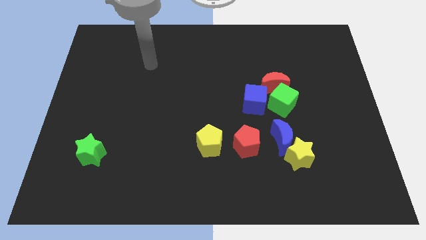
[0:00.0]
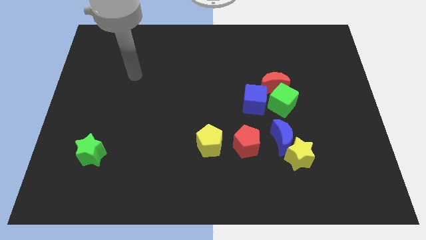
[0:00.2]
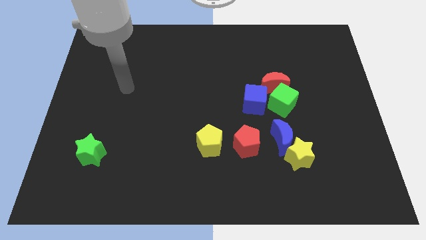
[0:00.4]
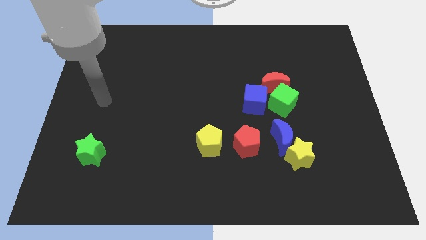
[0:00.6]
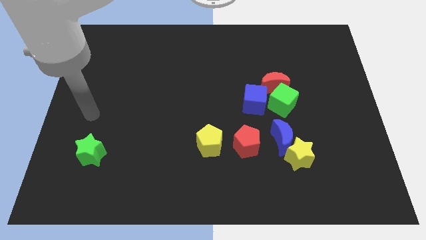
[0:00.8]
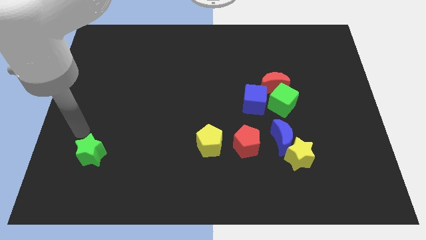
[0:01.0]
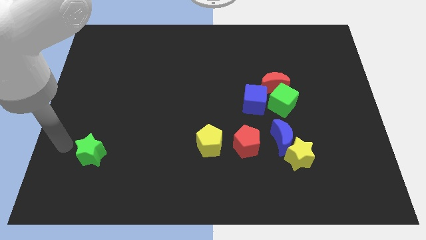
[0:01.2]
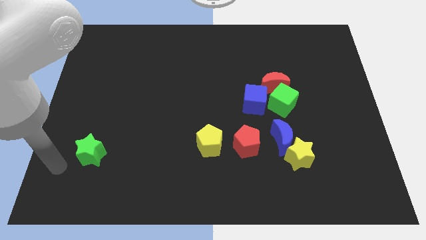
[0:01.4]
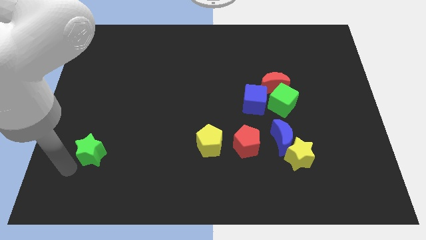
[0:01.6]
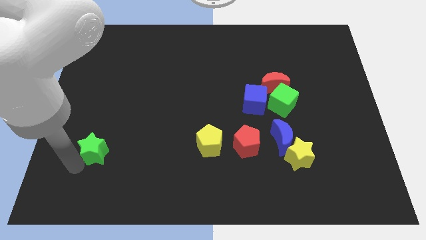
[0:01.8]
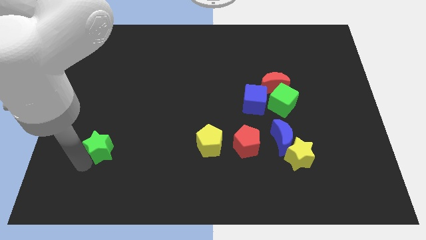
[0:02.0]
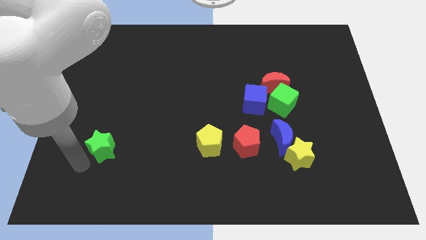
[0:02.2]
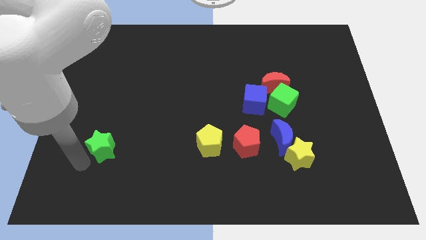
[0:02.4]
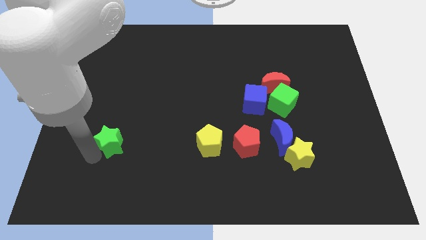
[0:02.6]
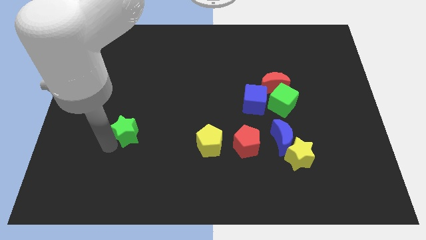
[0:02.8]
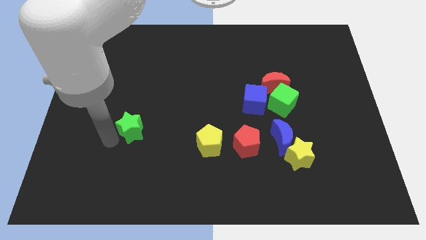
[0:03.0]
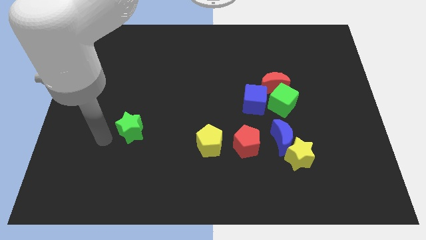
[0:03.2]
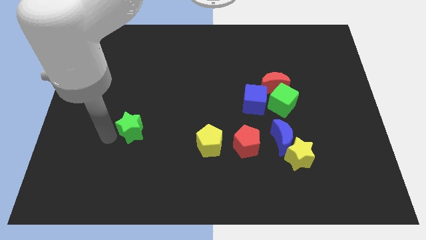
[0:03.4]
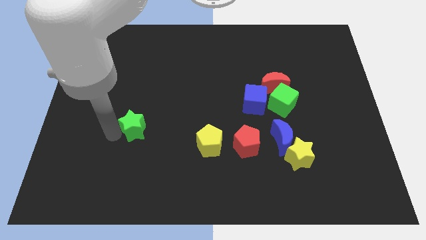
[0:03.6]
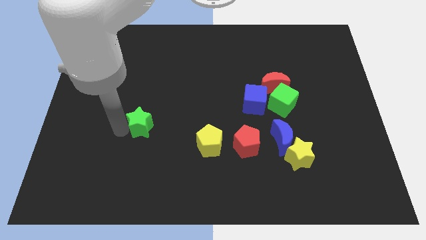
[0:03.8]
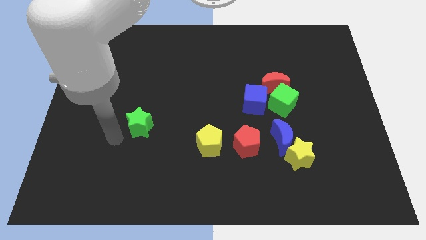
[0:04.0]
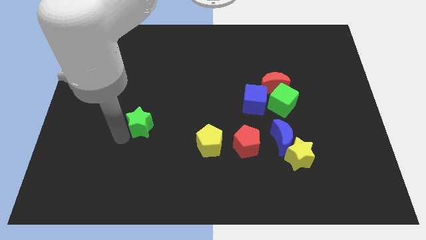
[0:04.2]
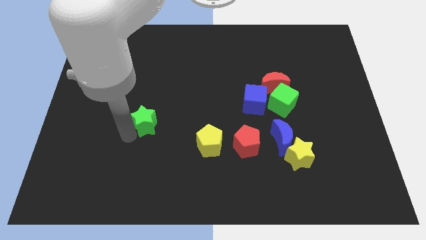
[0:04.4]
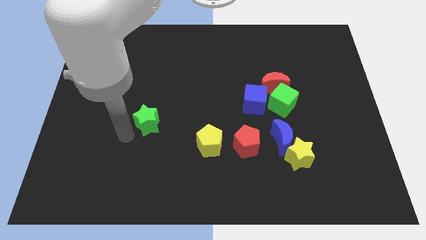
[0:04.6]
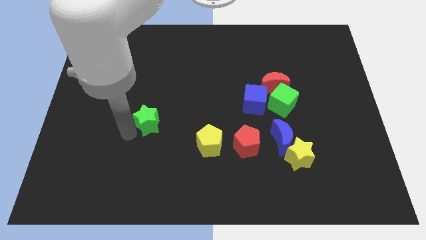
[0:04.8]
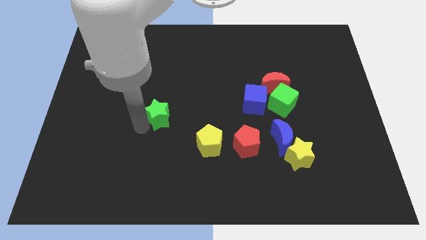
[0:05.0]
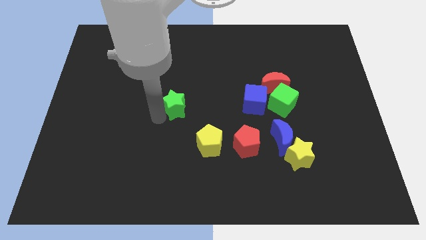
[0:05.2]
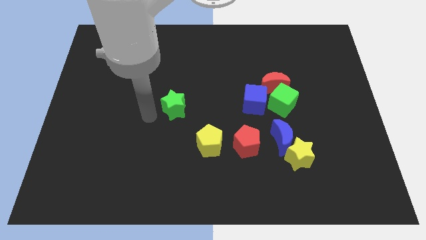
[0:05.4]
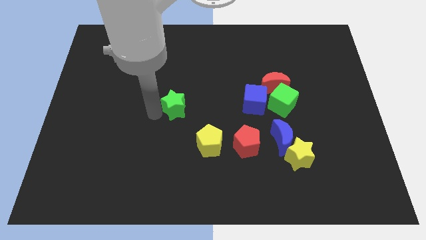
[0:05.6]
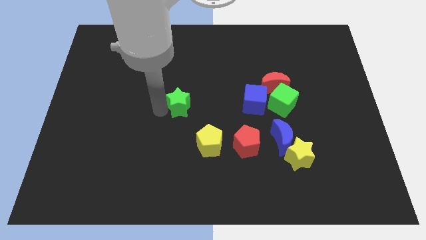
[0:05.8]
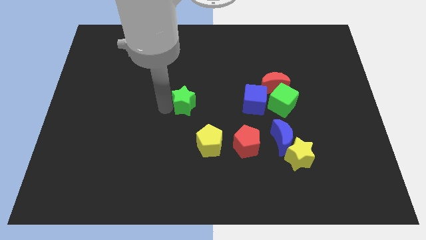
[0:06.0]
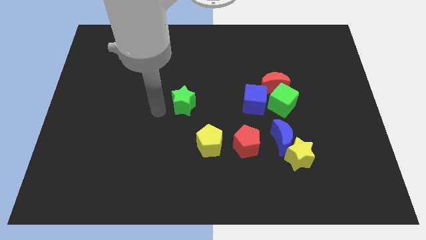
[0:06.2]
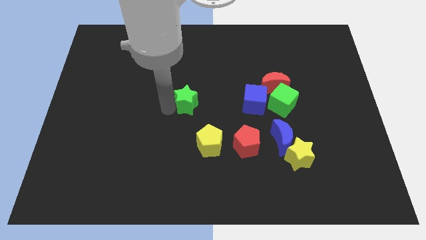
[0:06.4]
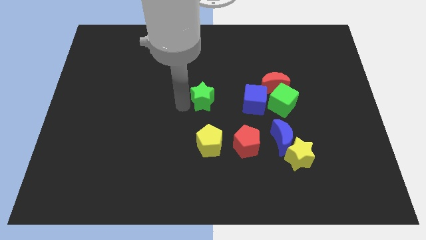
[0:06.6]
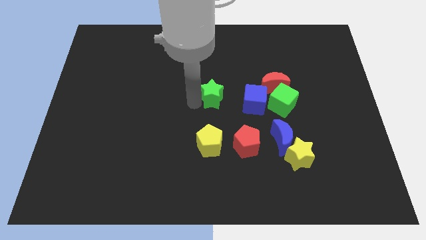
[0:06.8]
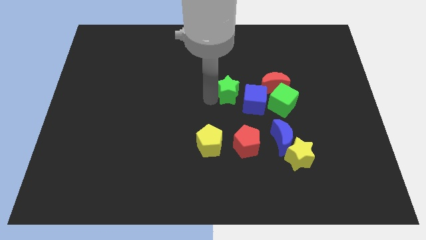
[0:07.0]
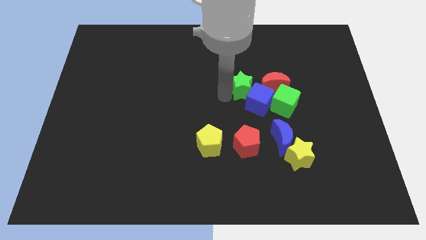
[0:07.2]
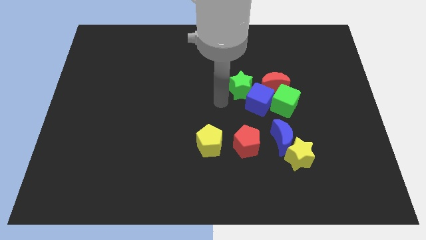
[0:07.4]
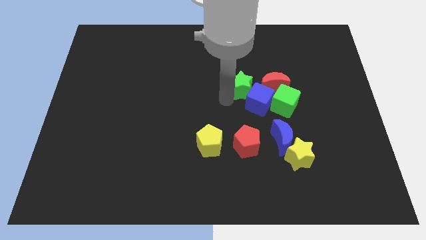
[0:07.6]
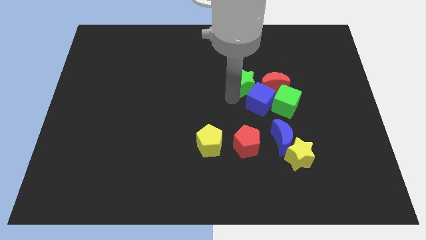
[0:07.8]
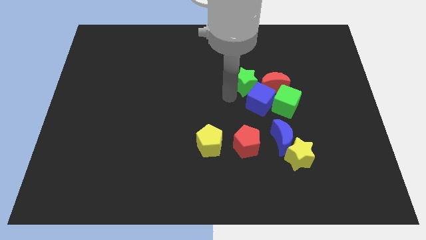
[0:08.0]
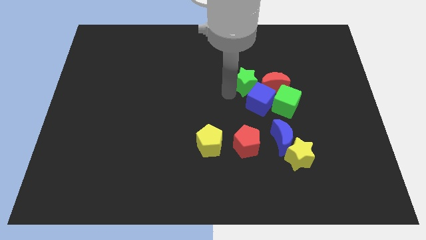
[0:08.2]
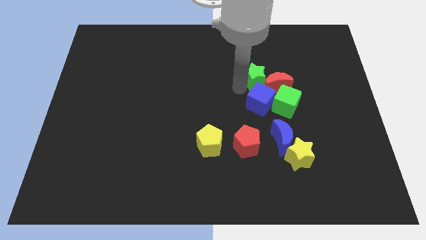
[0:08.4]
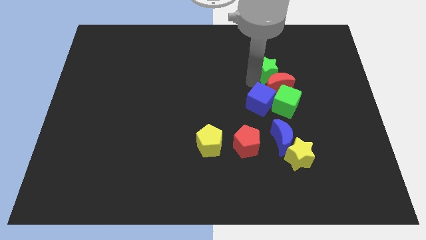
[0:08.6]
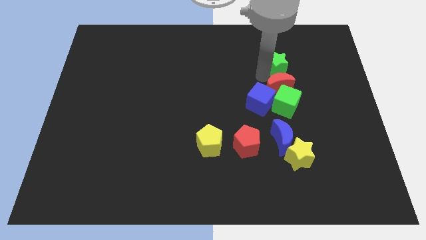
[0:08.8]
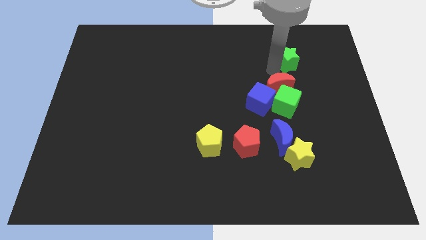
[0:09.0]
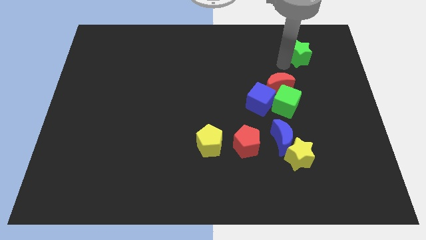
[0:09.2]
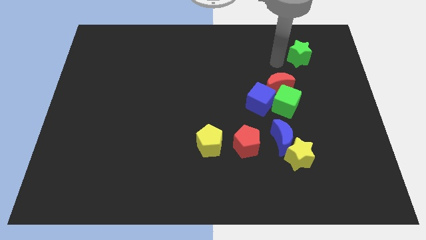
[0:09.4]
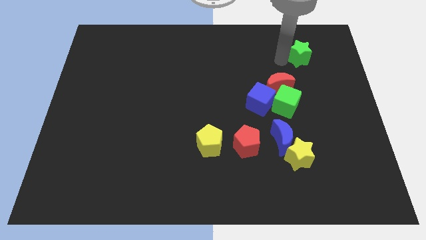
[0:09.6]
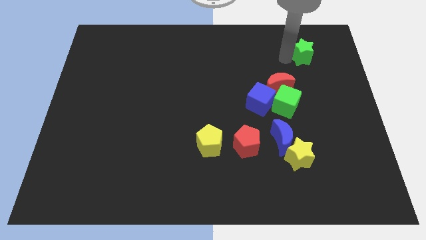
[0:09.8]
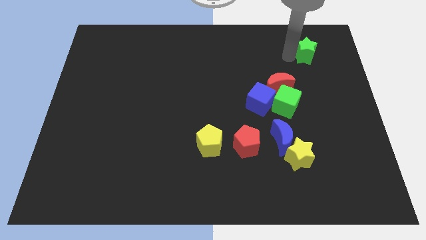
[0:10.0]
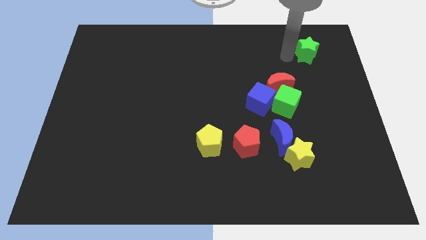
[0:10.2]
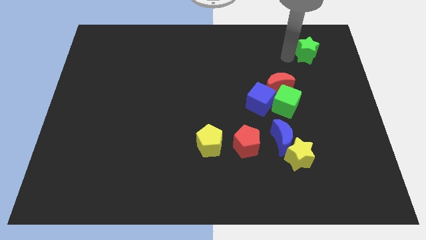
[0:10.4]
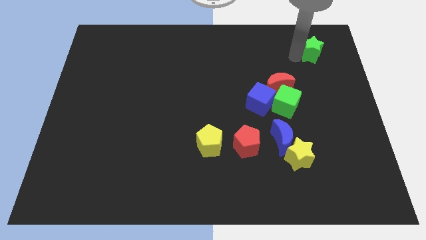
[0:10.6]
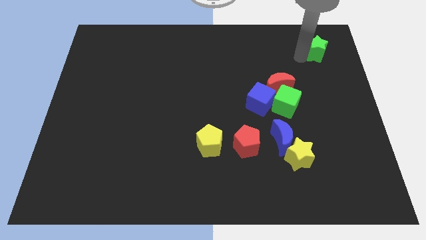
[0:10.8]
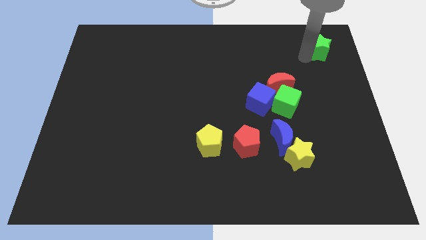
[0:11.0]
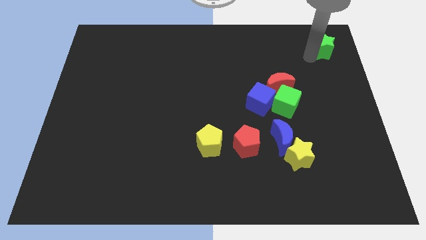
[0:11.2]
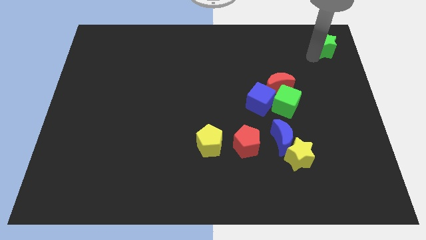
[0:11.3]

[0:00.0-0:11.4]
move the green star to the top right of the board
